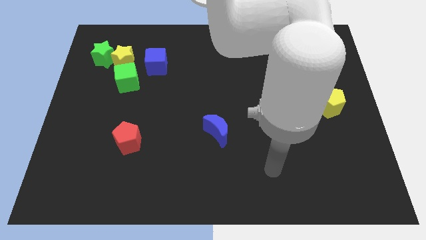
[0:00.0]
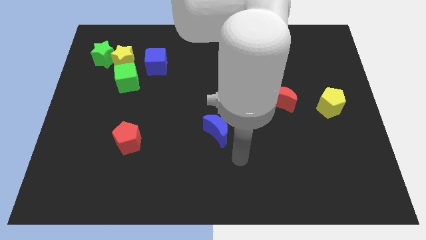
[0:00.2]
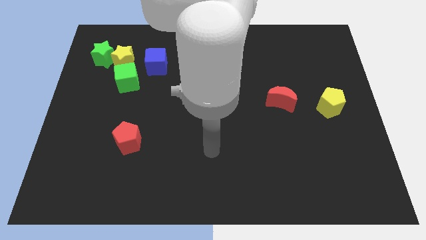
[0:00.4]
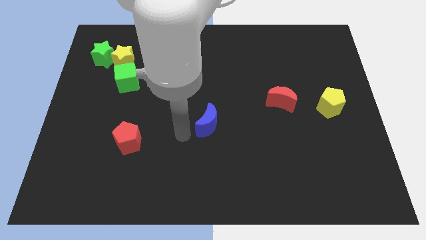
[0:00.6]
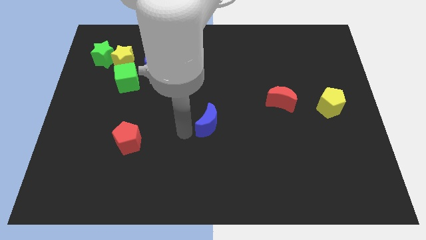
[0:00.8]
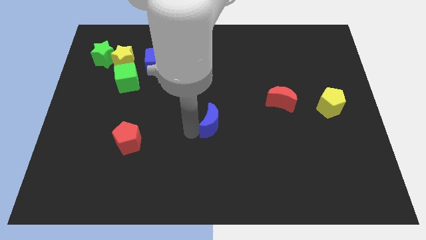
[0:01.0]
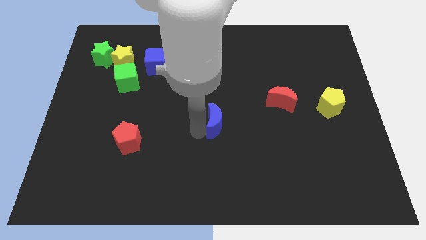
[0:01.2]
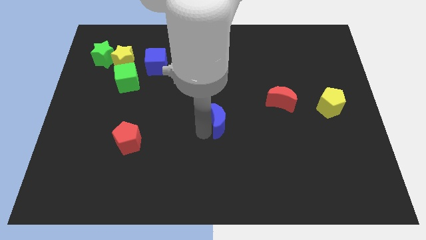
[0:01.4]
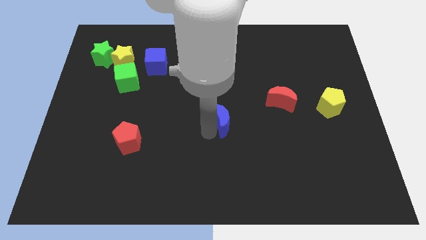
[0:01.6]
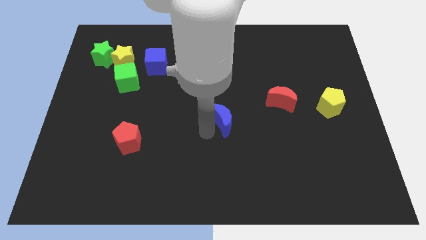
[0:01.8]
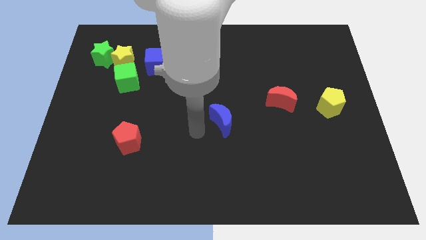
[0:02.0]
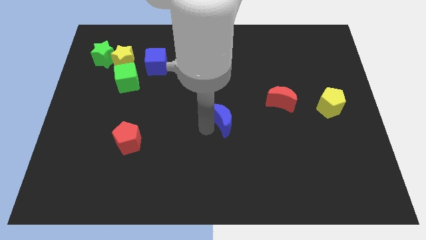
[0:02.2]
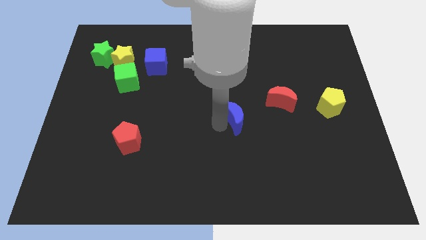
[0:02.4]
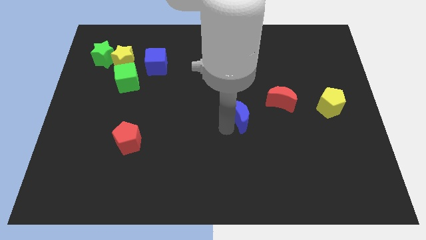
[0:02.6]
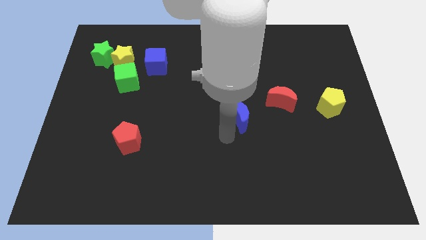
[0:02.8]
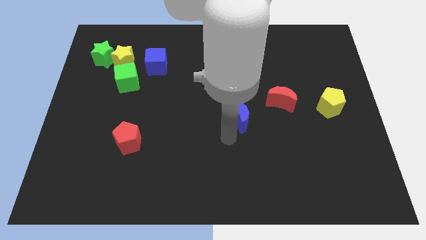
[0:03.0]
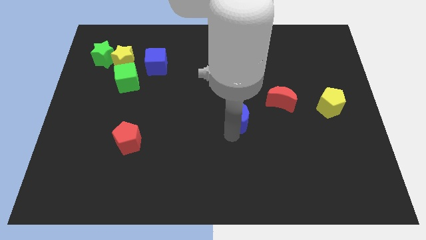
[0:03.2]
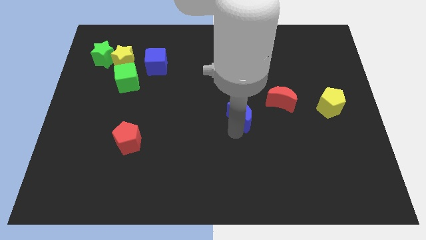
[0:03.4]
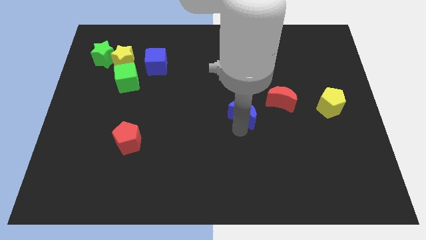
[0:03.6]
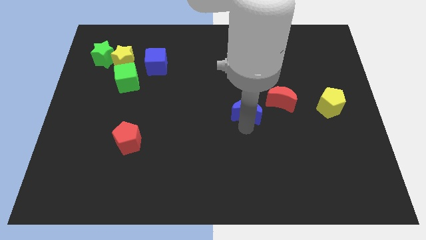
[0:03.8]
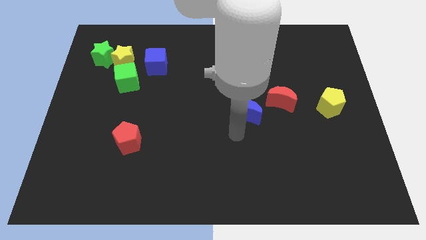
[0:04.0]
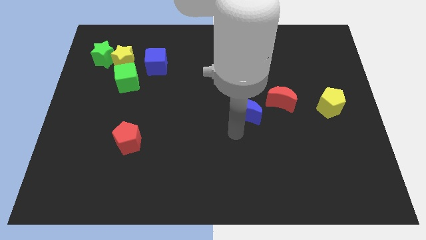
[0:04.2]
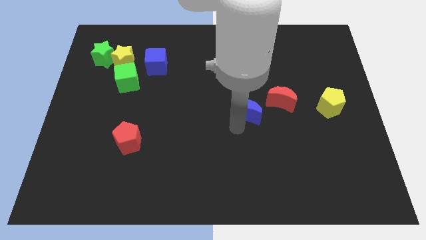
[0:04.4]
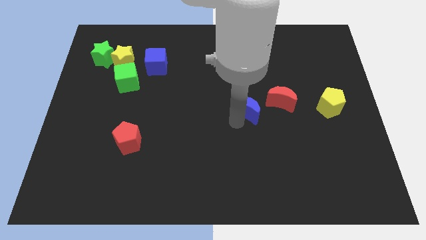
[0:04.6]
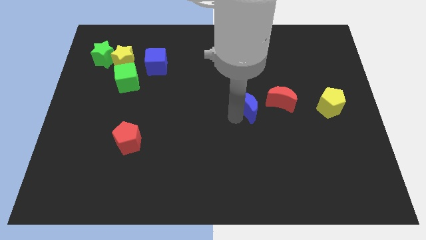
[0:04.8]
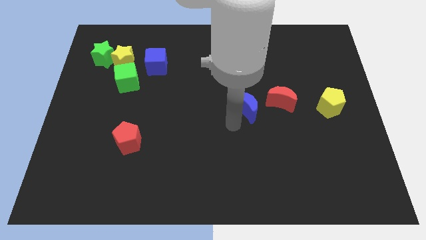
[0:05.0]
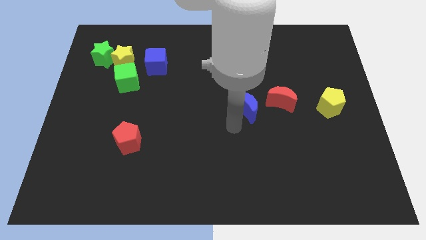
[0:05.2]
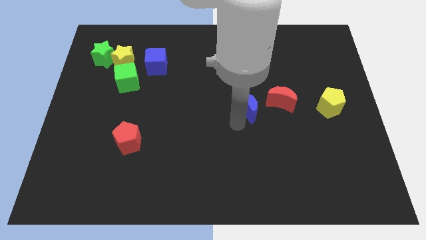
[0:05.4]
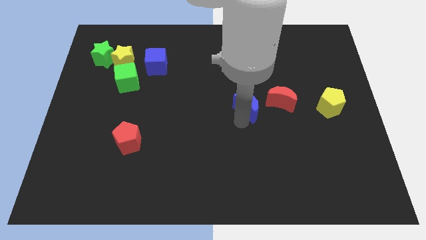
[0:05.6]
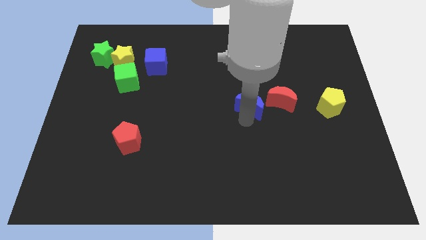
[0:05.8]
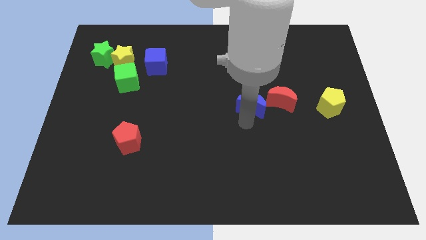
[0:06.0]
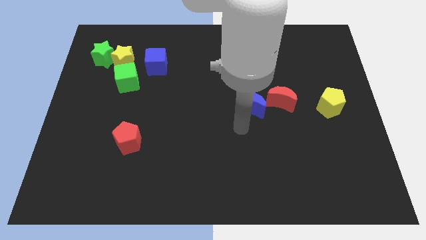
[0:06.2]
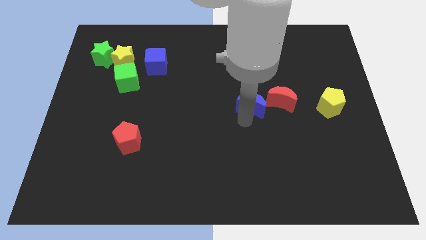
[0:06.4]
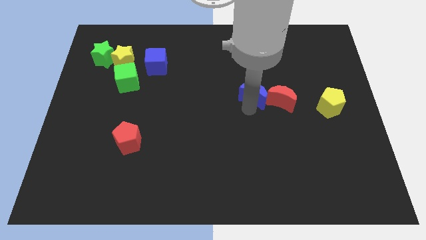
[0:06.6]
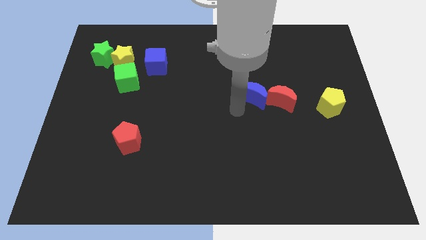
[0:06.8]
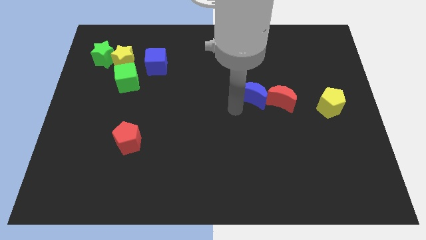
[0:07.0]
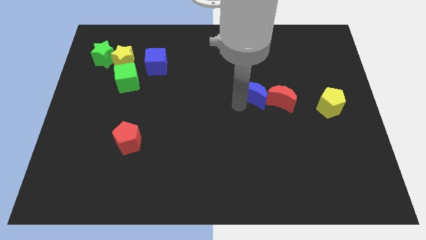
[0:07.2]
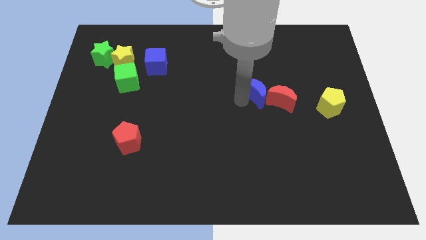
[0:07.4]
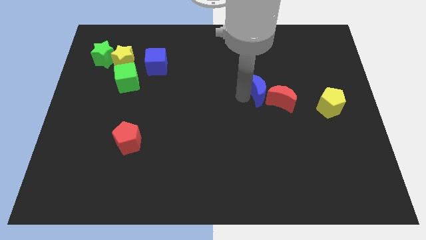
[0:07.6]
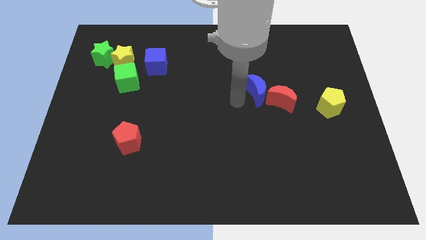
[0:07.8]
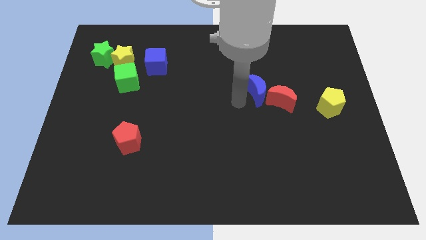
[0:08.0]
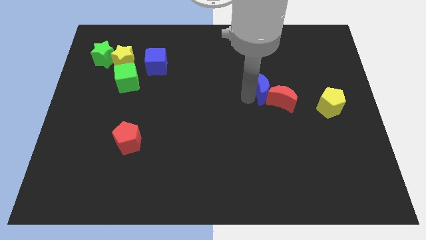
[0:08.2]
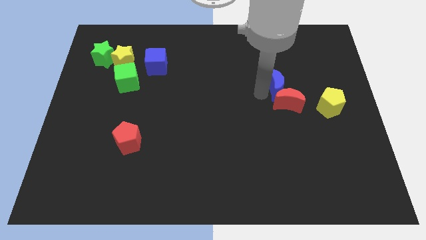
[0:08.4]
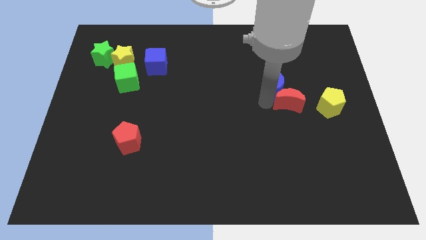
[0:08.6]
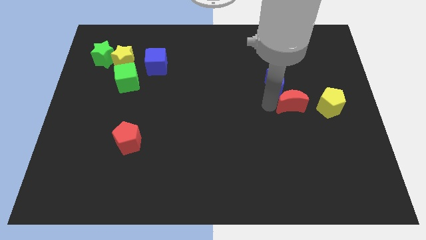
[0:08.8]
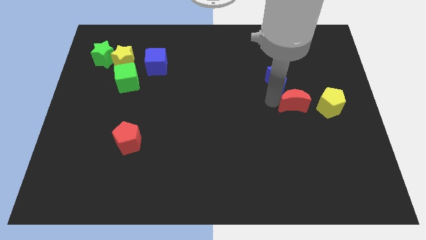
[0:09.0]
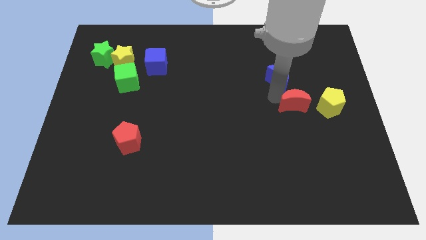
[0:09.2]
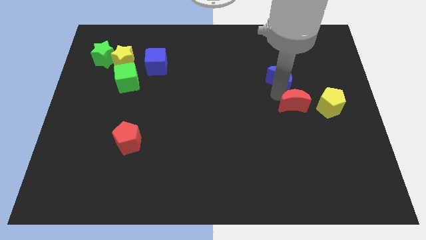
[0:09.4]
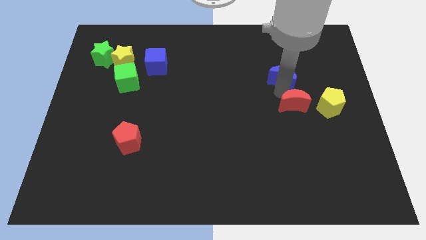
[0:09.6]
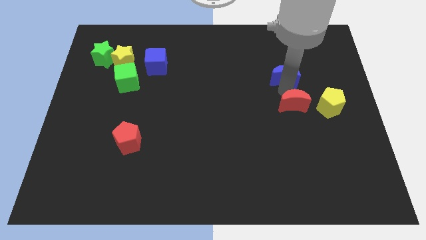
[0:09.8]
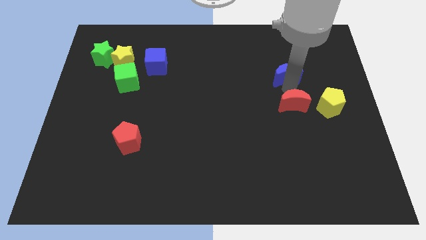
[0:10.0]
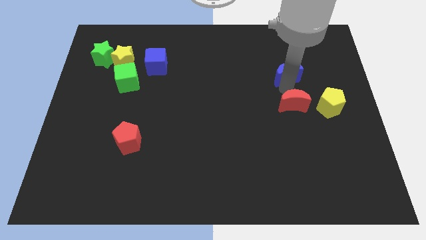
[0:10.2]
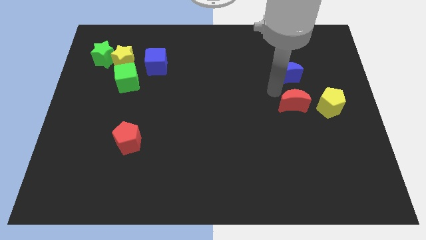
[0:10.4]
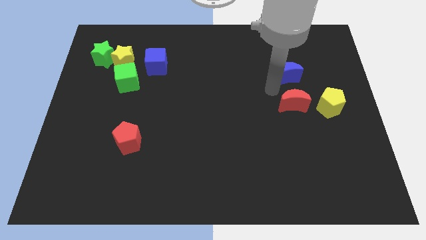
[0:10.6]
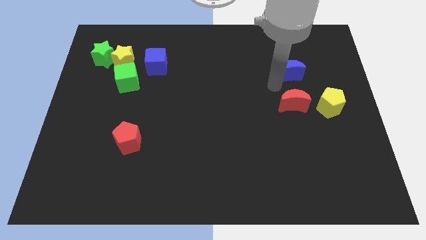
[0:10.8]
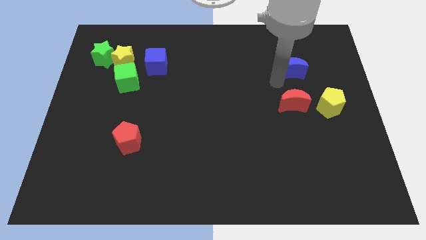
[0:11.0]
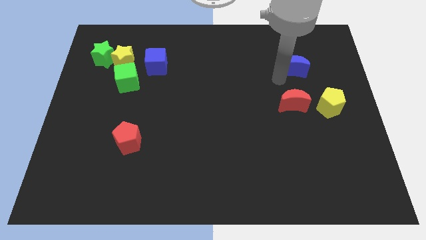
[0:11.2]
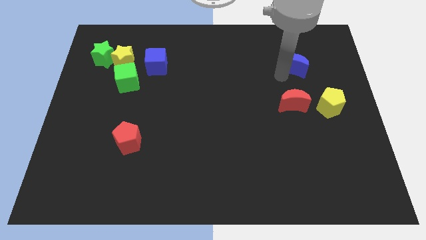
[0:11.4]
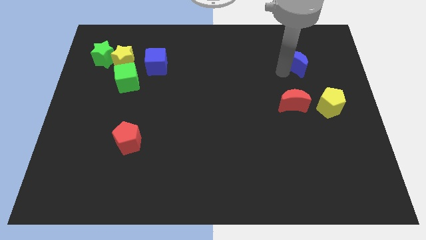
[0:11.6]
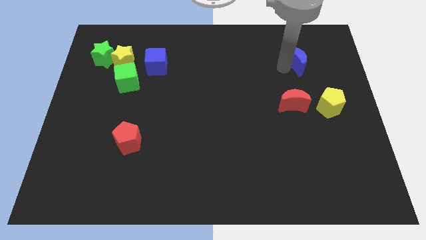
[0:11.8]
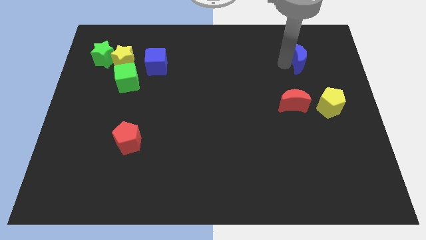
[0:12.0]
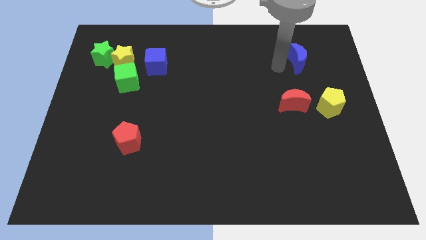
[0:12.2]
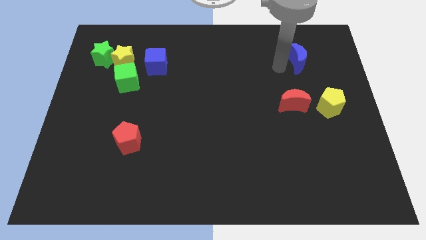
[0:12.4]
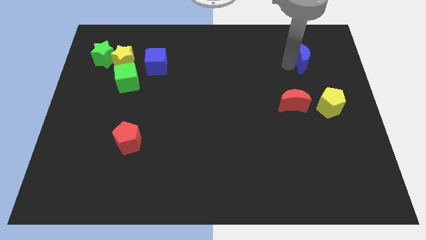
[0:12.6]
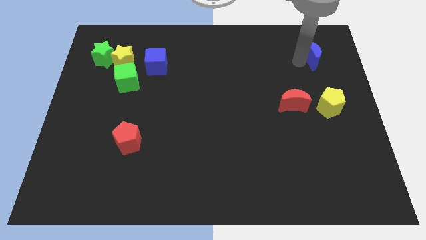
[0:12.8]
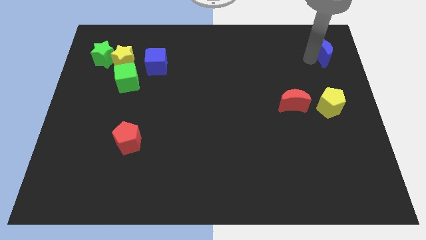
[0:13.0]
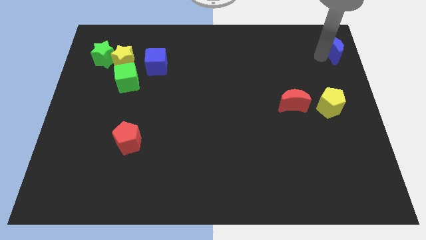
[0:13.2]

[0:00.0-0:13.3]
put the blue moon to the top right
